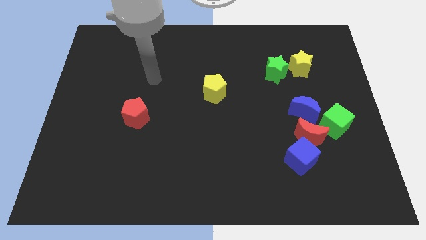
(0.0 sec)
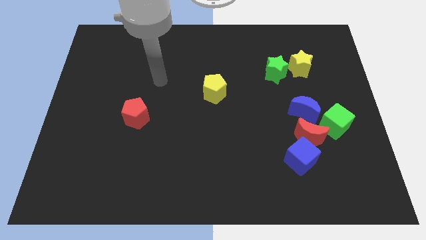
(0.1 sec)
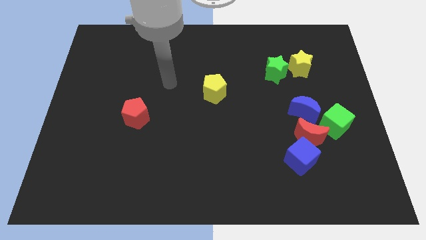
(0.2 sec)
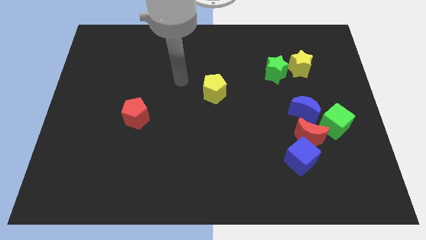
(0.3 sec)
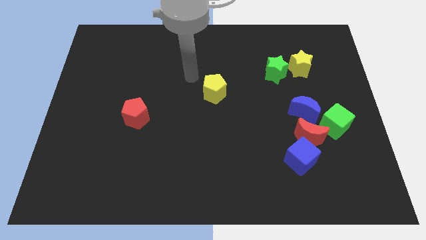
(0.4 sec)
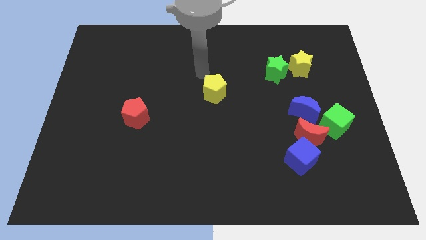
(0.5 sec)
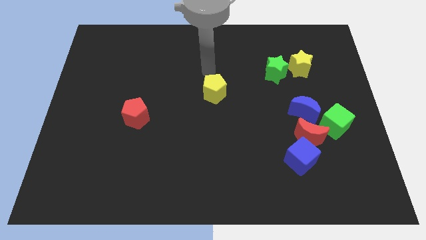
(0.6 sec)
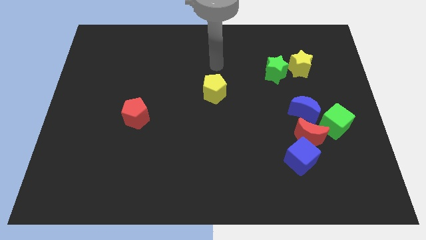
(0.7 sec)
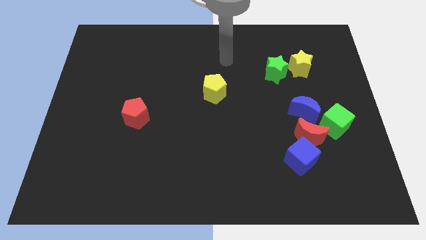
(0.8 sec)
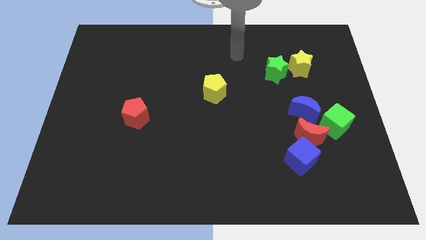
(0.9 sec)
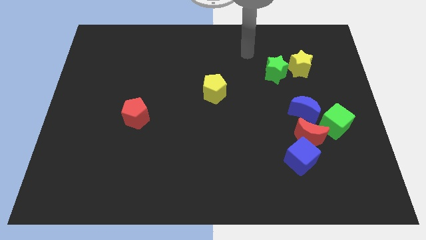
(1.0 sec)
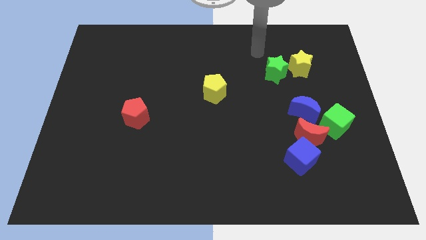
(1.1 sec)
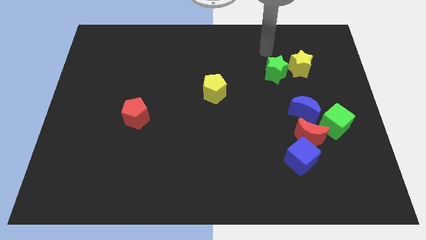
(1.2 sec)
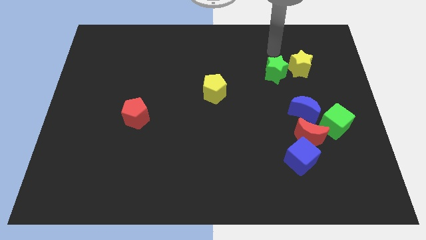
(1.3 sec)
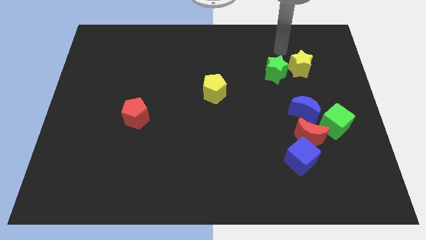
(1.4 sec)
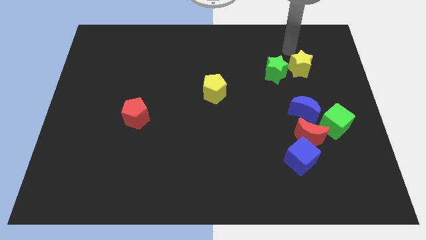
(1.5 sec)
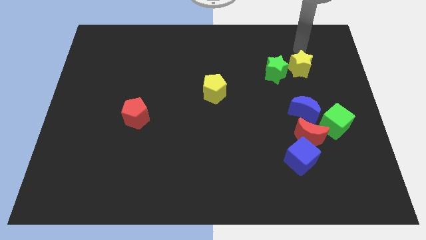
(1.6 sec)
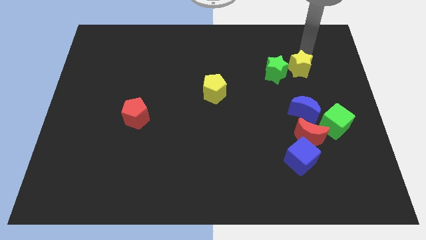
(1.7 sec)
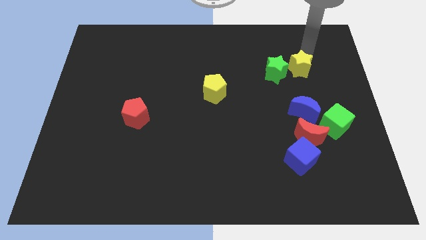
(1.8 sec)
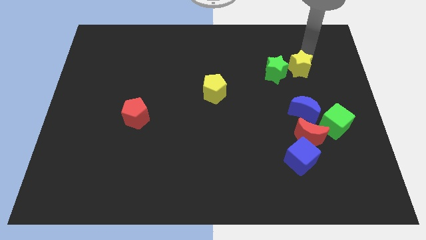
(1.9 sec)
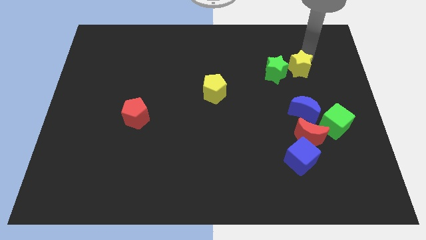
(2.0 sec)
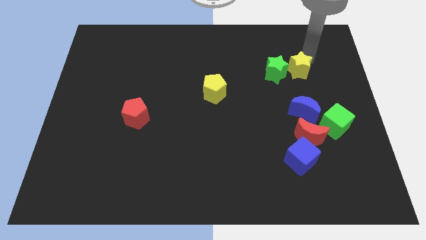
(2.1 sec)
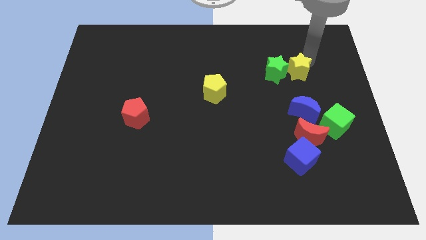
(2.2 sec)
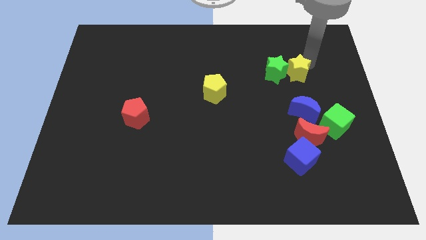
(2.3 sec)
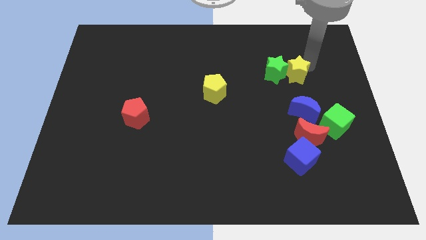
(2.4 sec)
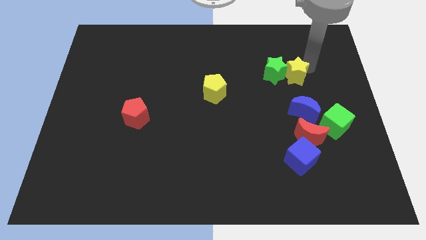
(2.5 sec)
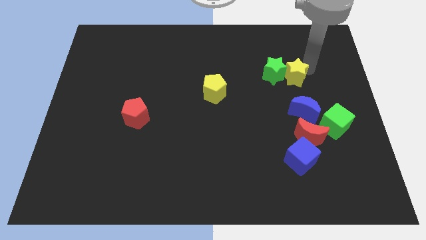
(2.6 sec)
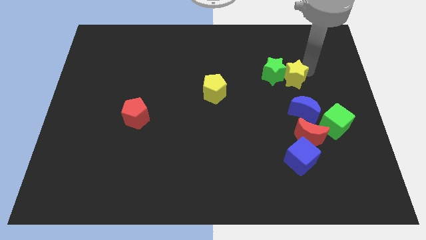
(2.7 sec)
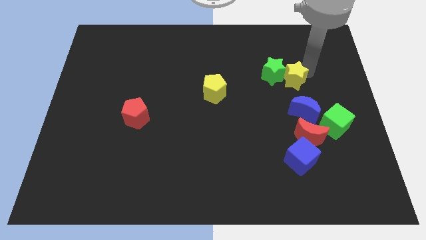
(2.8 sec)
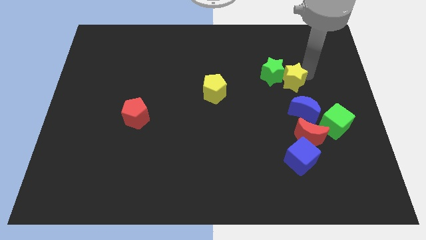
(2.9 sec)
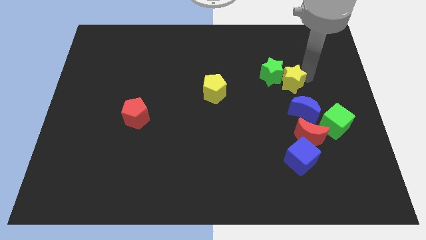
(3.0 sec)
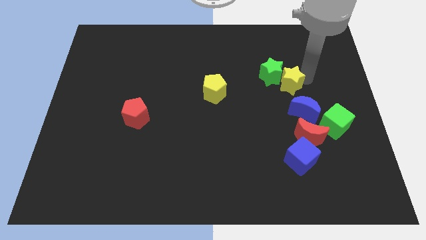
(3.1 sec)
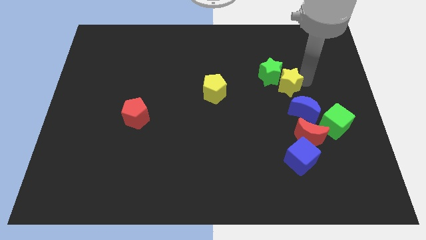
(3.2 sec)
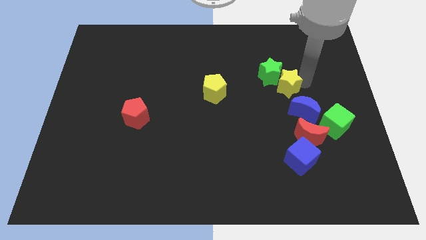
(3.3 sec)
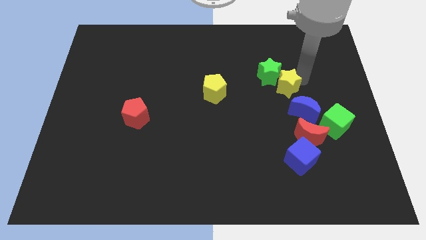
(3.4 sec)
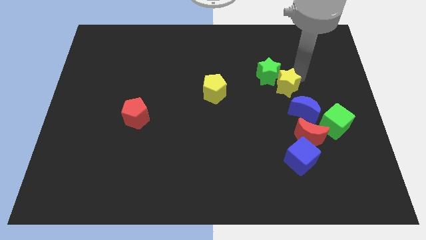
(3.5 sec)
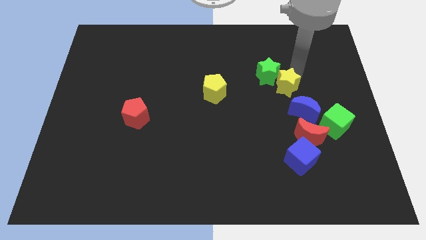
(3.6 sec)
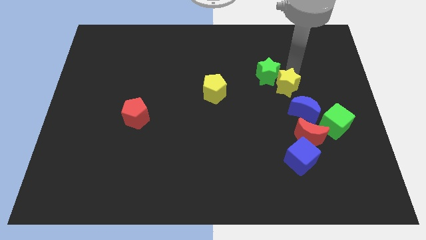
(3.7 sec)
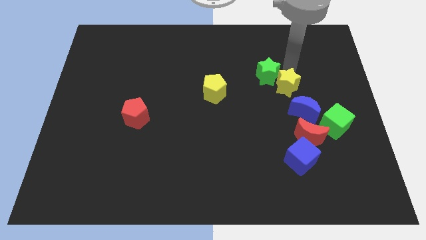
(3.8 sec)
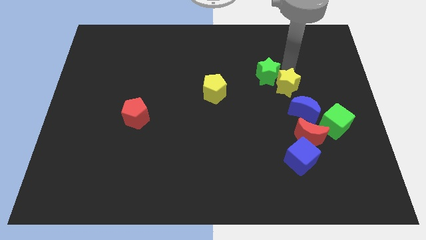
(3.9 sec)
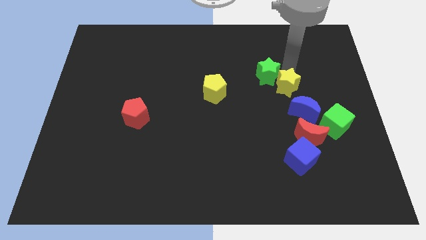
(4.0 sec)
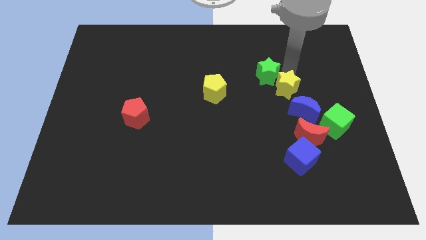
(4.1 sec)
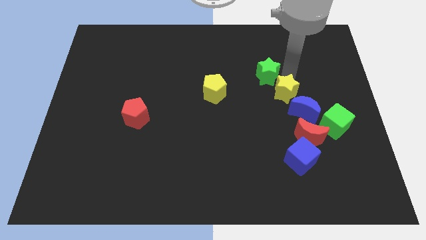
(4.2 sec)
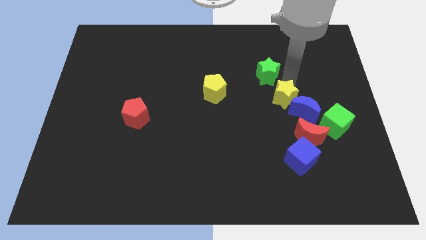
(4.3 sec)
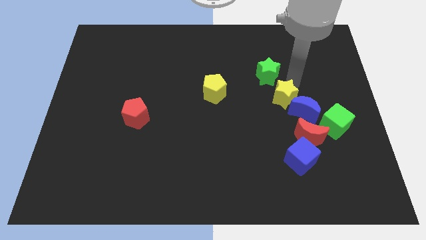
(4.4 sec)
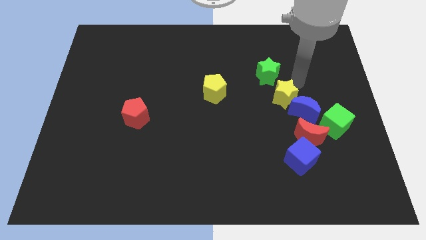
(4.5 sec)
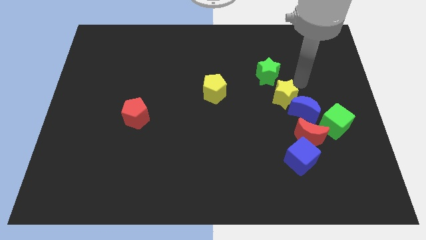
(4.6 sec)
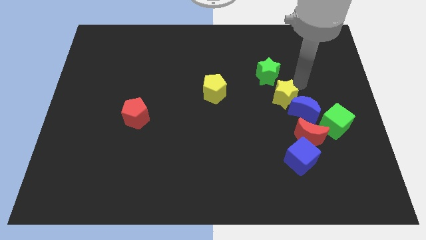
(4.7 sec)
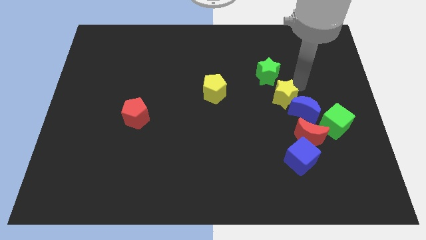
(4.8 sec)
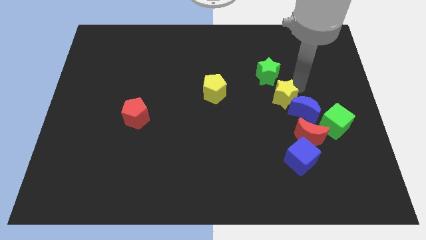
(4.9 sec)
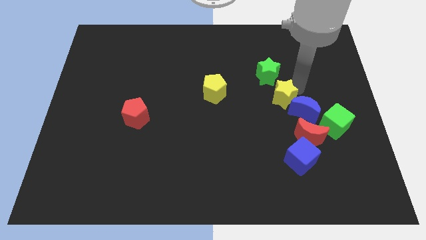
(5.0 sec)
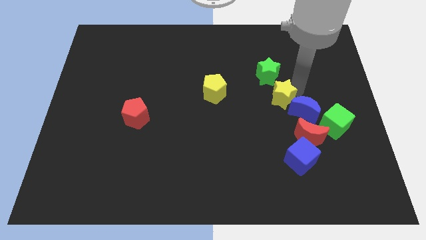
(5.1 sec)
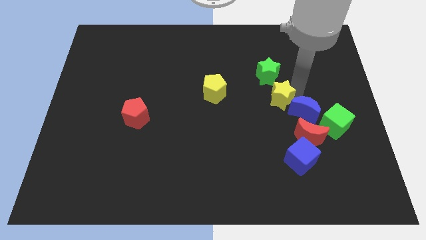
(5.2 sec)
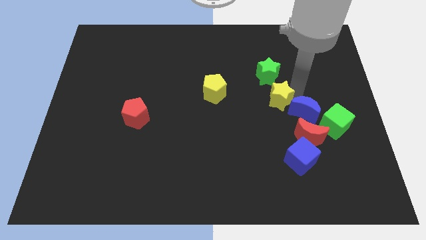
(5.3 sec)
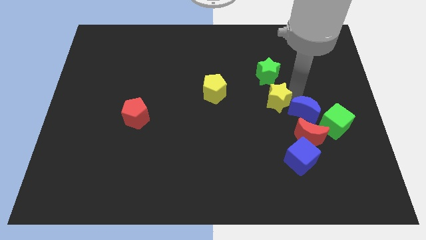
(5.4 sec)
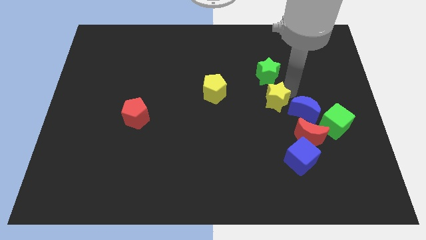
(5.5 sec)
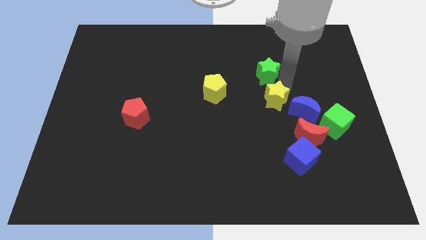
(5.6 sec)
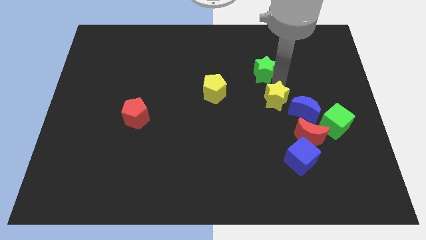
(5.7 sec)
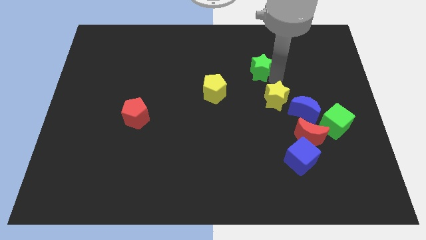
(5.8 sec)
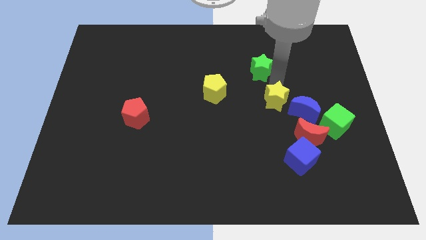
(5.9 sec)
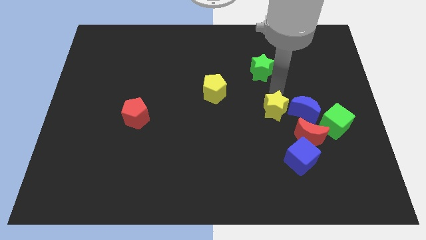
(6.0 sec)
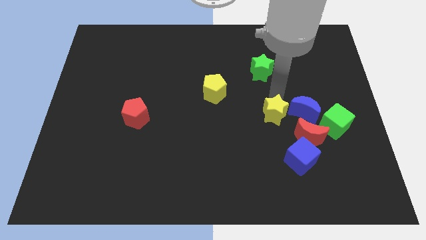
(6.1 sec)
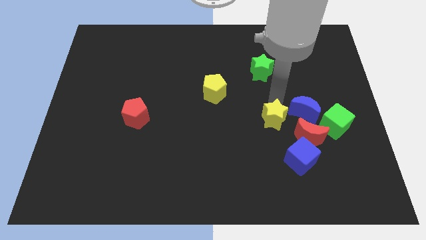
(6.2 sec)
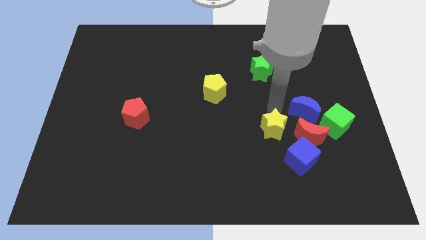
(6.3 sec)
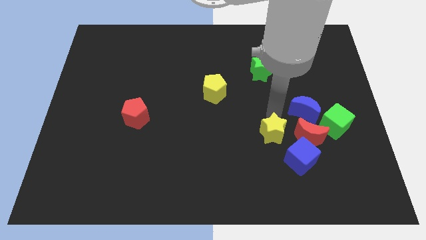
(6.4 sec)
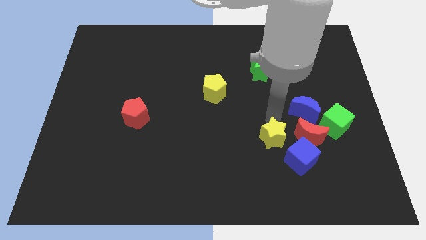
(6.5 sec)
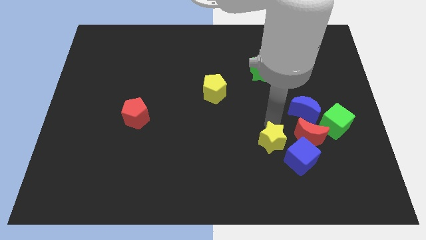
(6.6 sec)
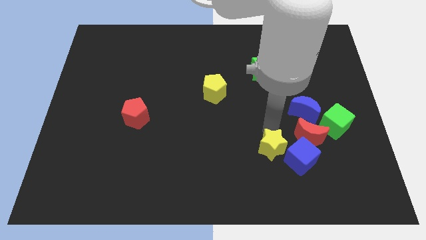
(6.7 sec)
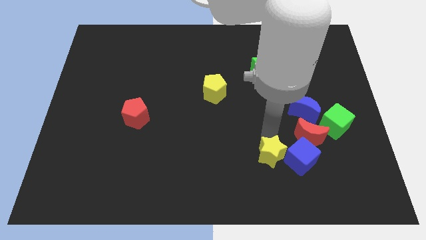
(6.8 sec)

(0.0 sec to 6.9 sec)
push the yellow star towards the blue cube
